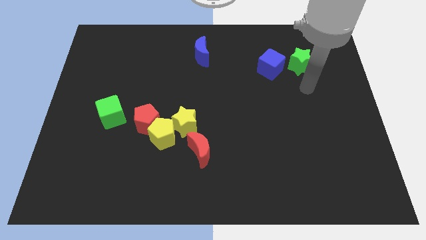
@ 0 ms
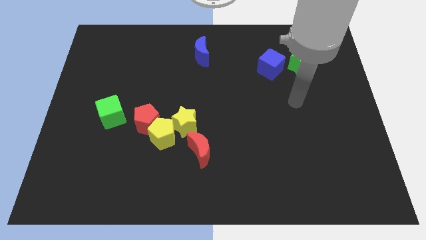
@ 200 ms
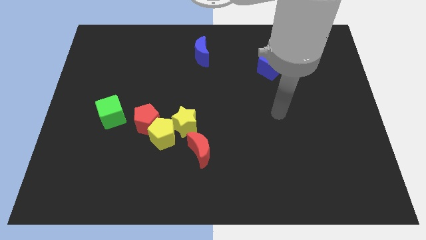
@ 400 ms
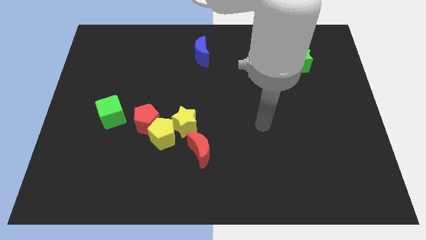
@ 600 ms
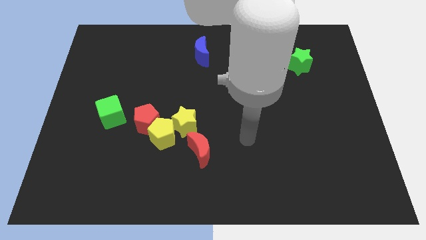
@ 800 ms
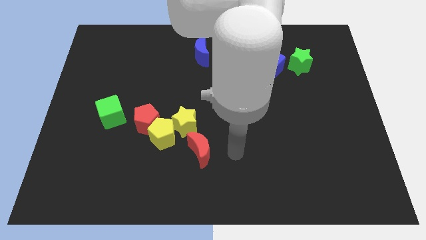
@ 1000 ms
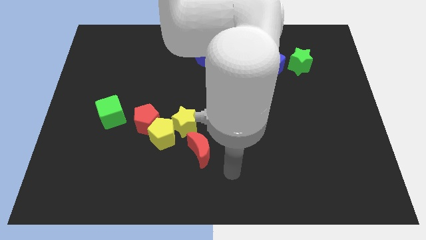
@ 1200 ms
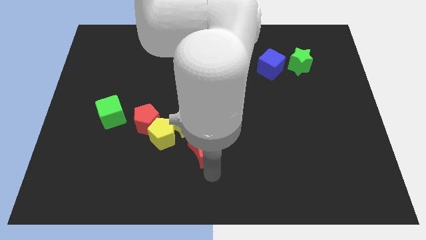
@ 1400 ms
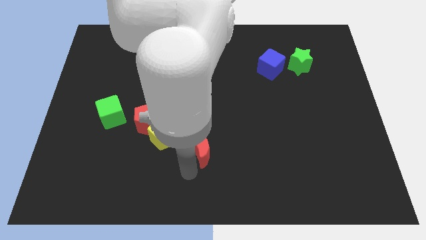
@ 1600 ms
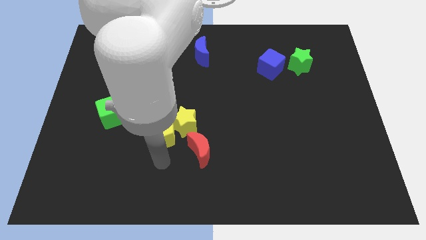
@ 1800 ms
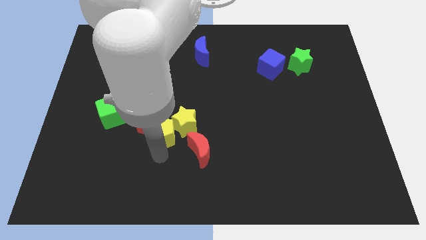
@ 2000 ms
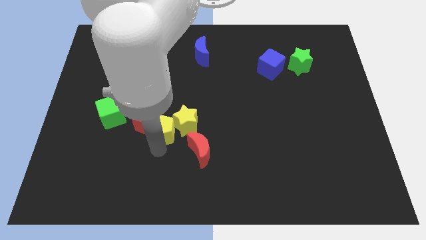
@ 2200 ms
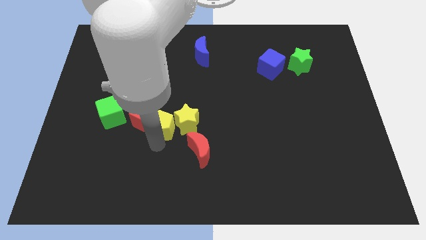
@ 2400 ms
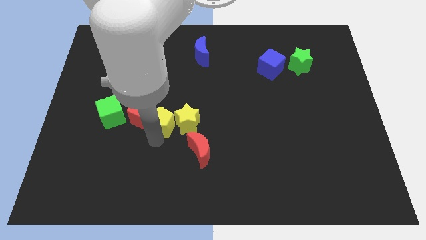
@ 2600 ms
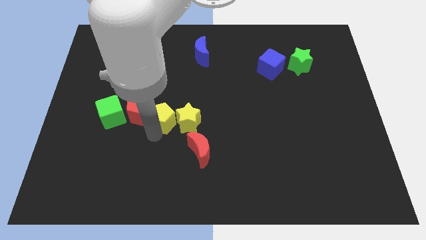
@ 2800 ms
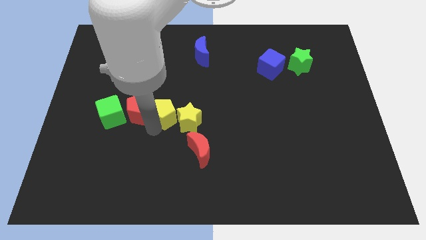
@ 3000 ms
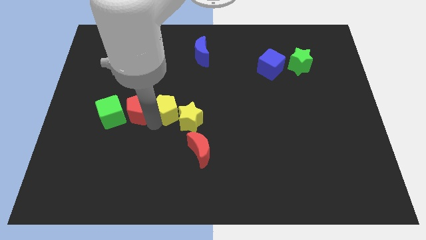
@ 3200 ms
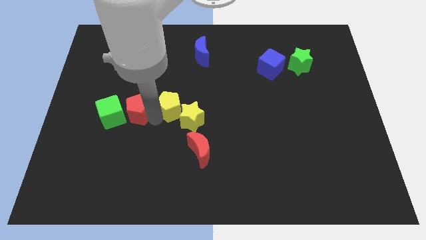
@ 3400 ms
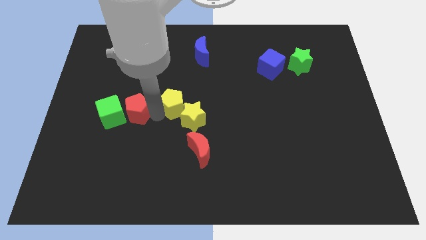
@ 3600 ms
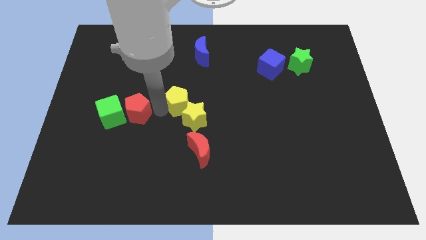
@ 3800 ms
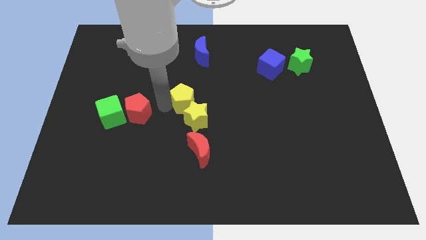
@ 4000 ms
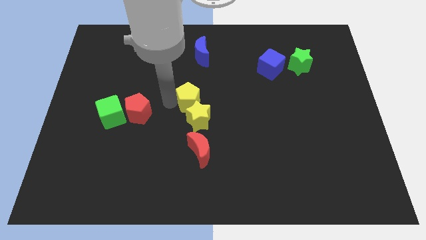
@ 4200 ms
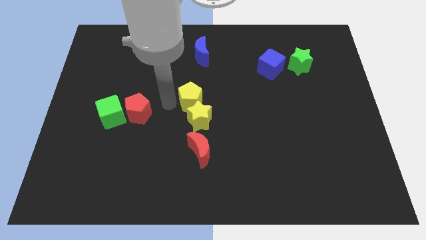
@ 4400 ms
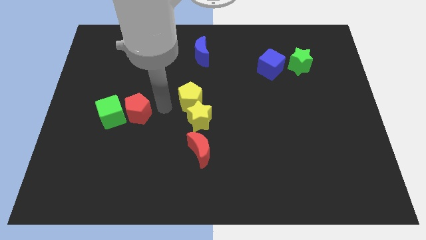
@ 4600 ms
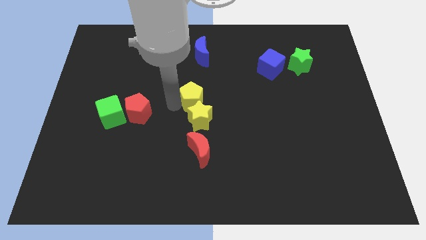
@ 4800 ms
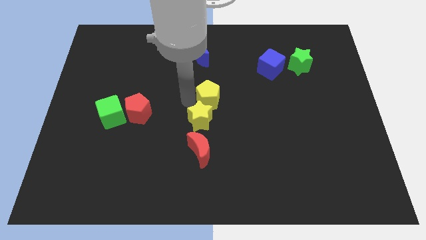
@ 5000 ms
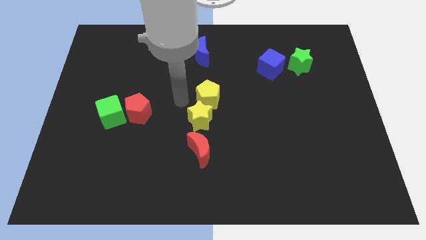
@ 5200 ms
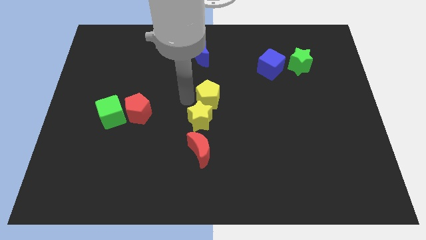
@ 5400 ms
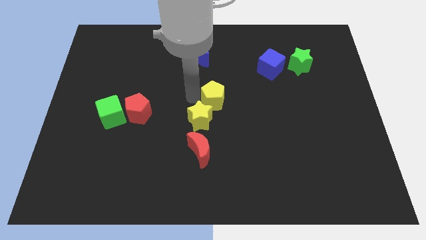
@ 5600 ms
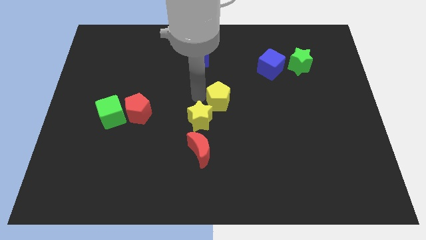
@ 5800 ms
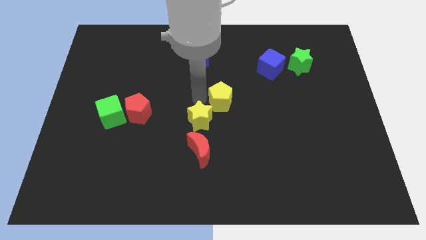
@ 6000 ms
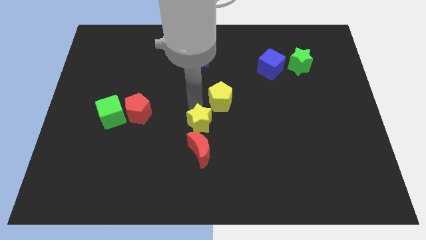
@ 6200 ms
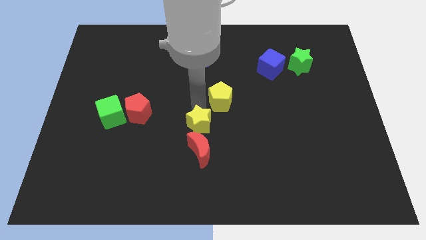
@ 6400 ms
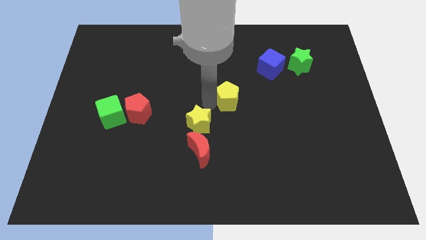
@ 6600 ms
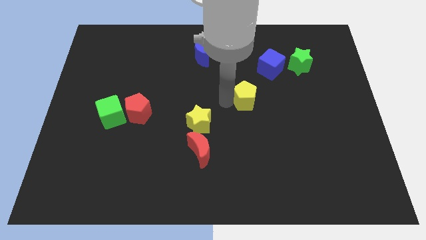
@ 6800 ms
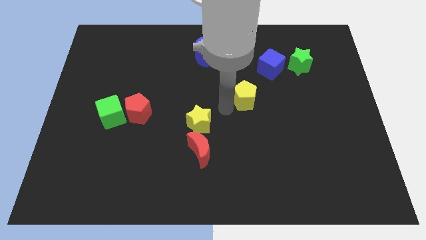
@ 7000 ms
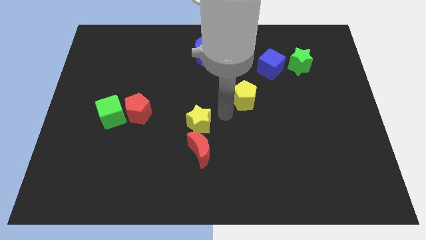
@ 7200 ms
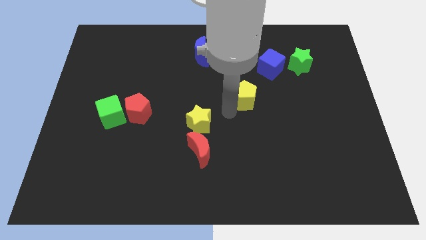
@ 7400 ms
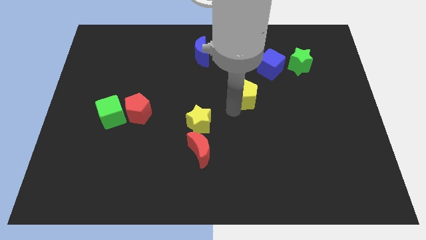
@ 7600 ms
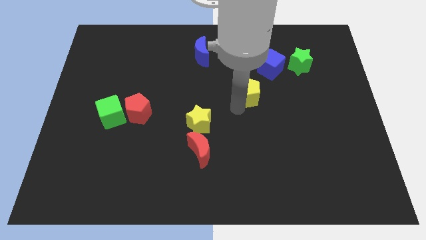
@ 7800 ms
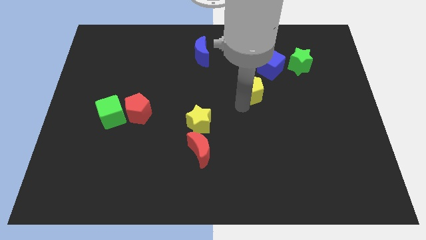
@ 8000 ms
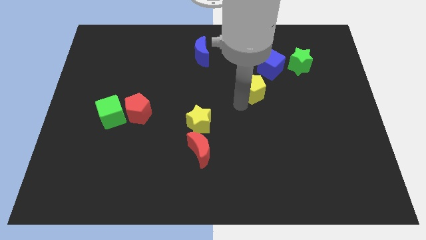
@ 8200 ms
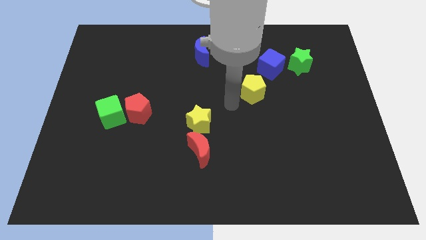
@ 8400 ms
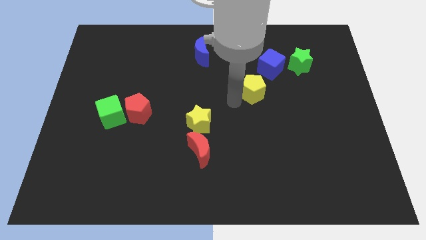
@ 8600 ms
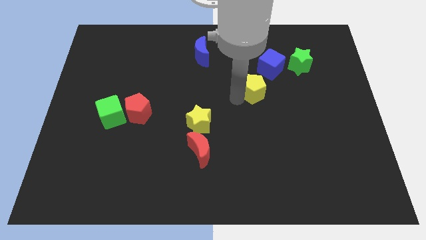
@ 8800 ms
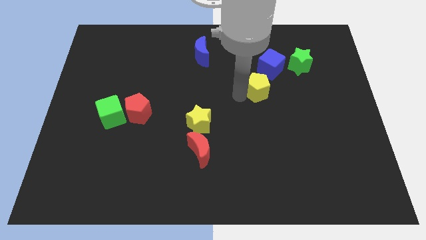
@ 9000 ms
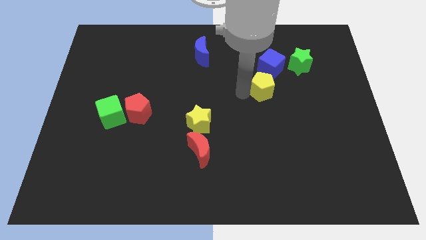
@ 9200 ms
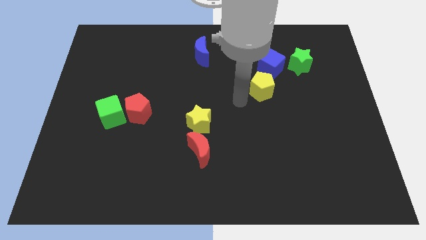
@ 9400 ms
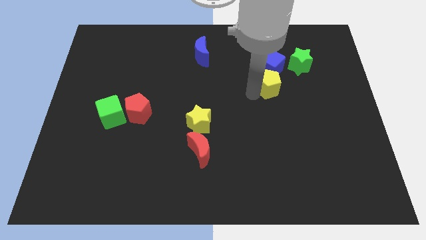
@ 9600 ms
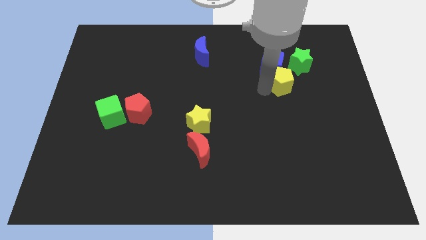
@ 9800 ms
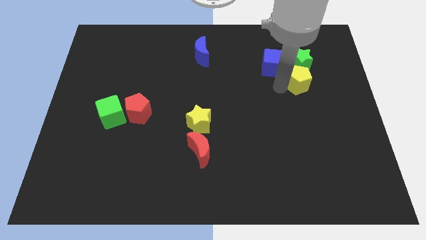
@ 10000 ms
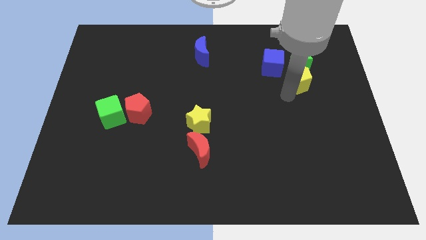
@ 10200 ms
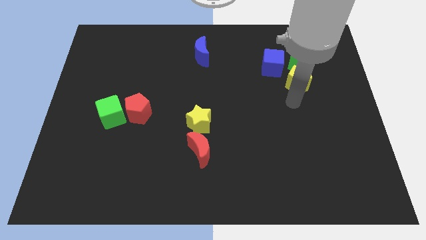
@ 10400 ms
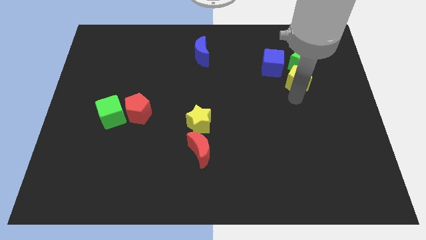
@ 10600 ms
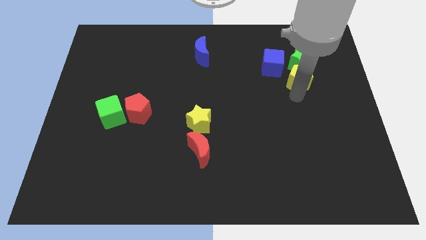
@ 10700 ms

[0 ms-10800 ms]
put the yellow pentagon next to the green star
